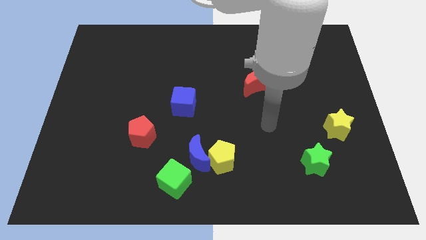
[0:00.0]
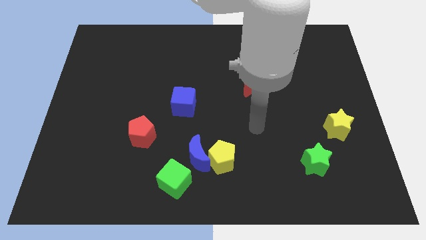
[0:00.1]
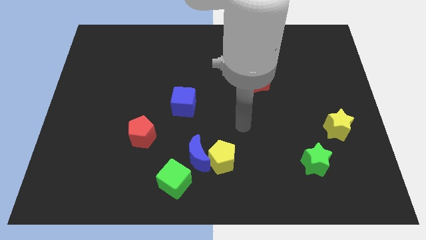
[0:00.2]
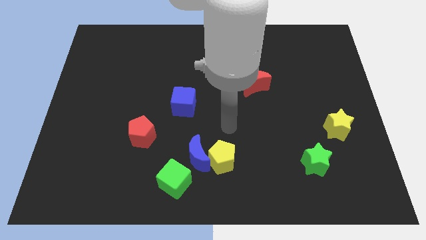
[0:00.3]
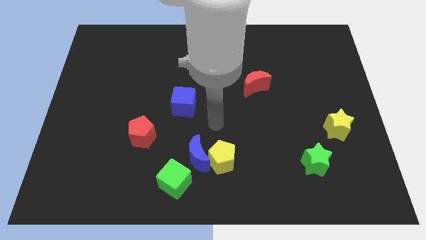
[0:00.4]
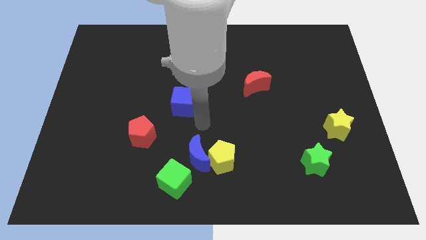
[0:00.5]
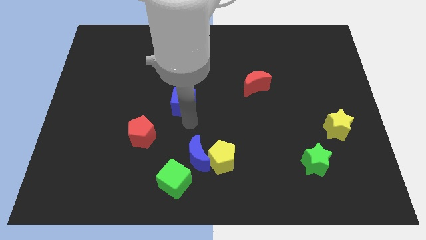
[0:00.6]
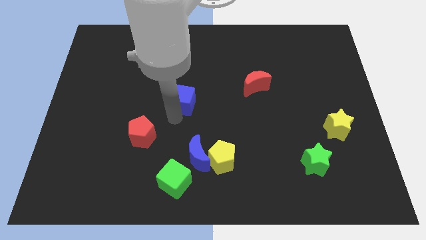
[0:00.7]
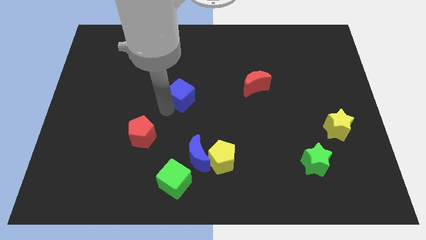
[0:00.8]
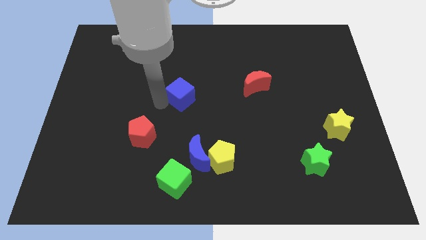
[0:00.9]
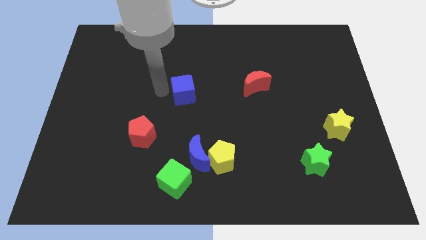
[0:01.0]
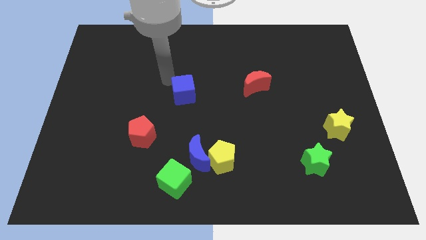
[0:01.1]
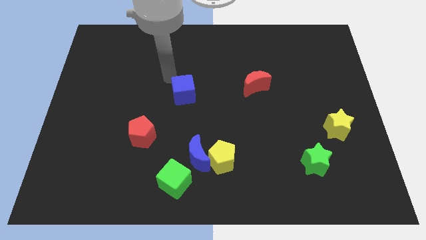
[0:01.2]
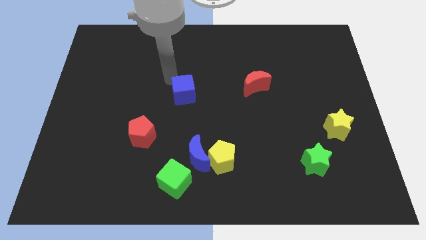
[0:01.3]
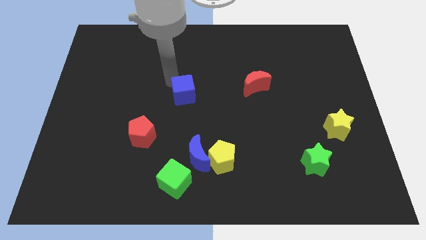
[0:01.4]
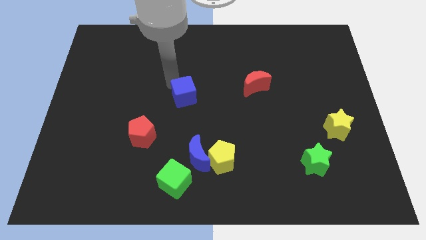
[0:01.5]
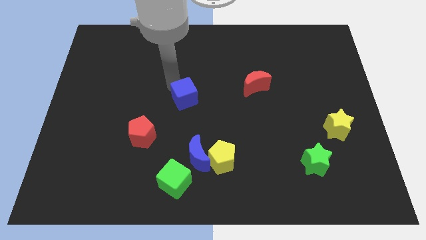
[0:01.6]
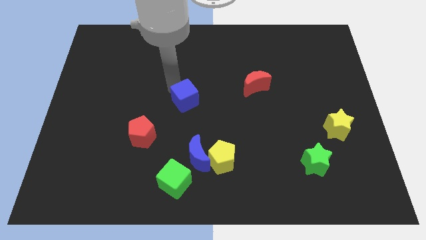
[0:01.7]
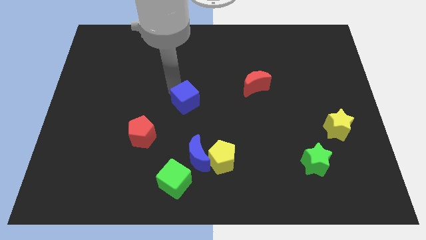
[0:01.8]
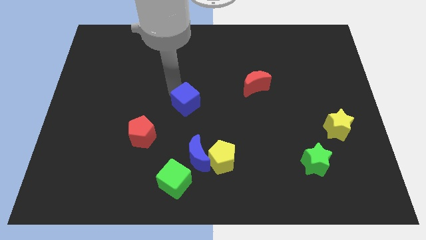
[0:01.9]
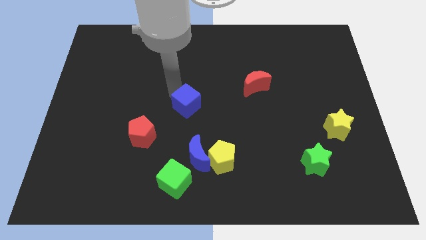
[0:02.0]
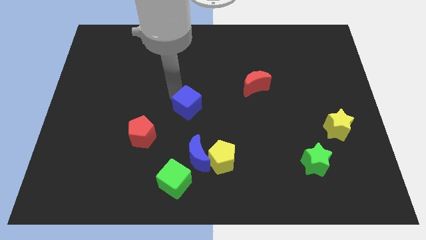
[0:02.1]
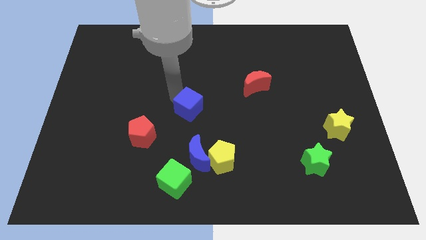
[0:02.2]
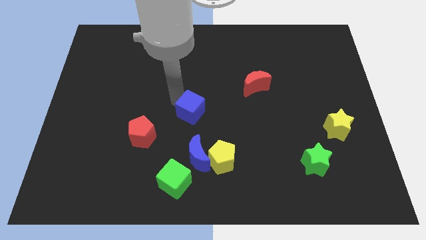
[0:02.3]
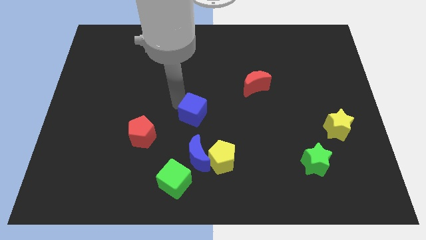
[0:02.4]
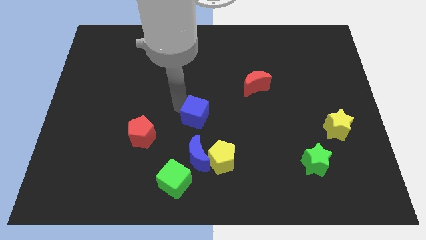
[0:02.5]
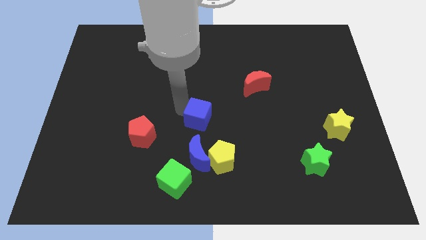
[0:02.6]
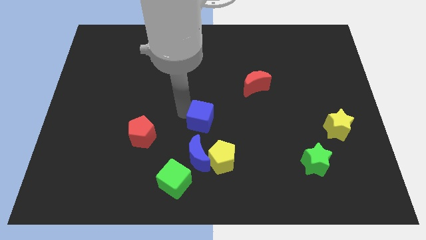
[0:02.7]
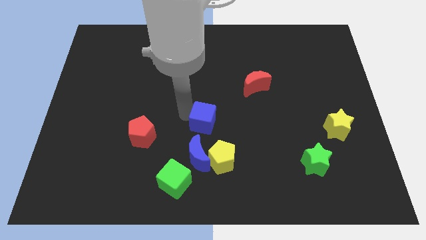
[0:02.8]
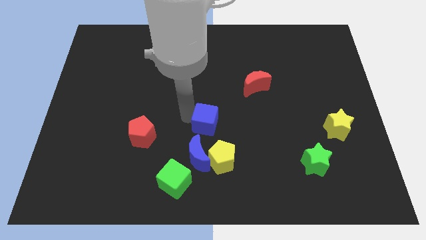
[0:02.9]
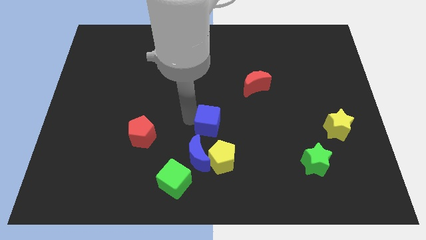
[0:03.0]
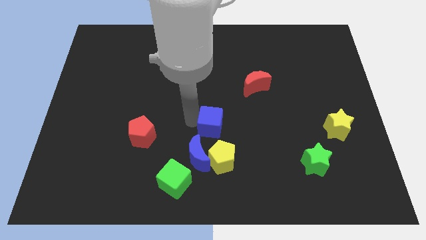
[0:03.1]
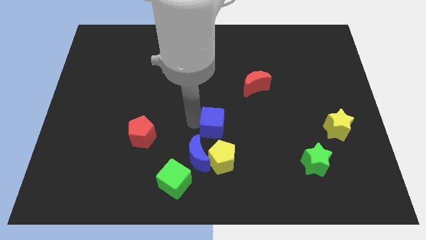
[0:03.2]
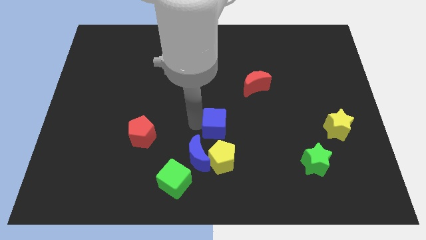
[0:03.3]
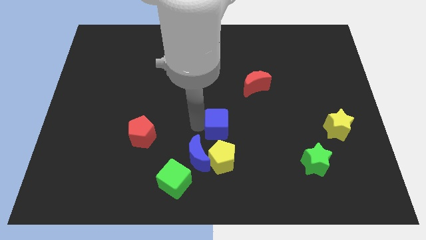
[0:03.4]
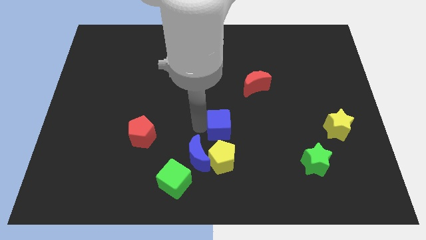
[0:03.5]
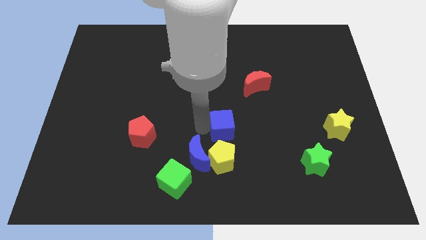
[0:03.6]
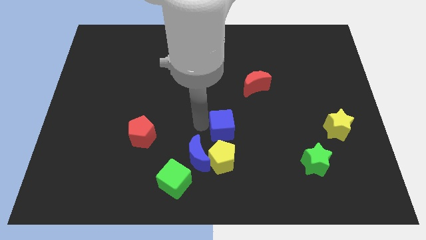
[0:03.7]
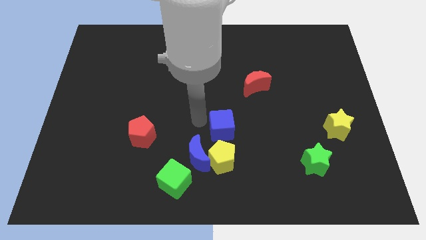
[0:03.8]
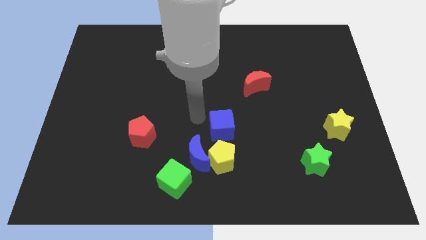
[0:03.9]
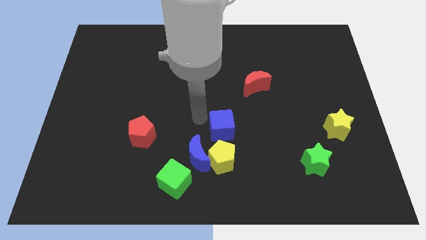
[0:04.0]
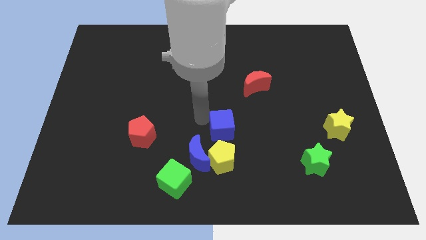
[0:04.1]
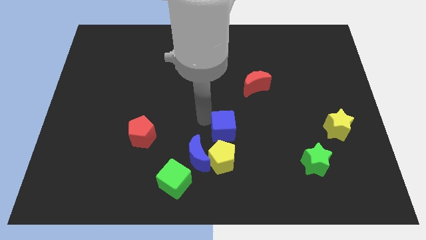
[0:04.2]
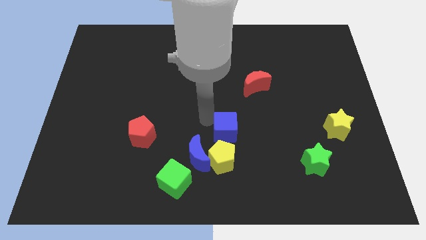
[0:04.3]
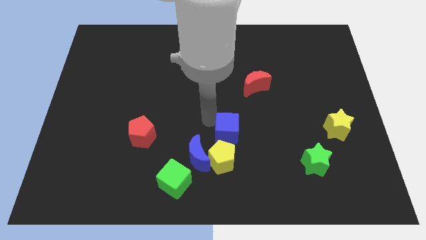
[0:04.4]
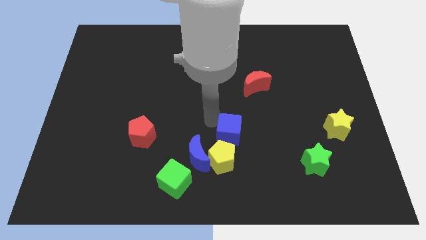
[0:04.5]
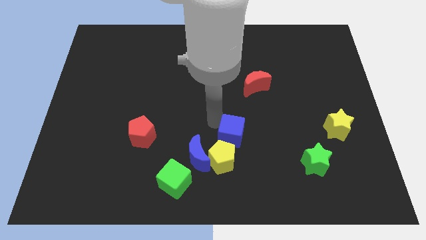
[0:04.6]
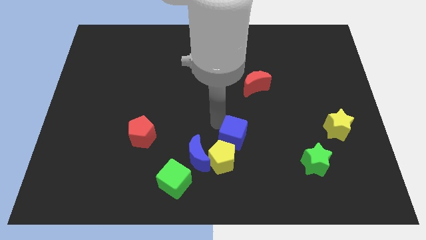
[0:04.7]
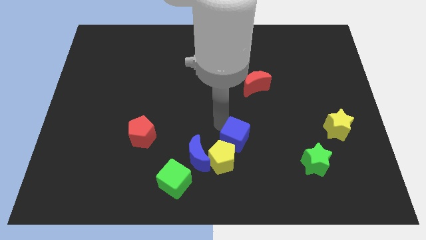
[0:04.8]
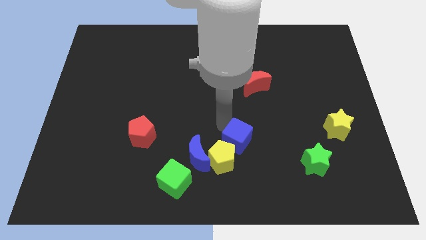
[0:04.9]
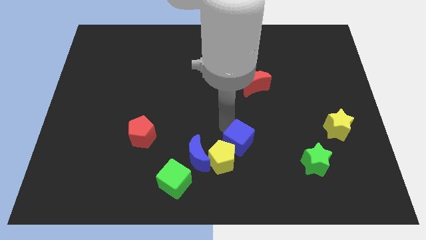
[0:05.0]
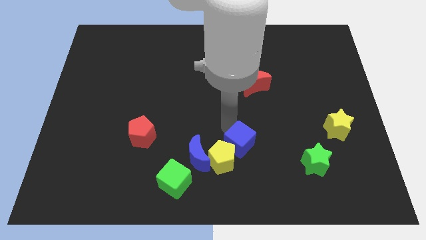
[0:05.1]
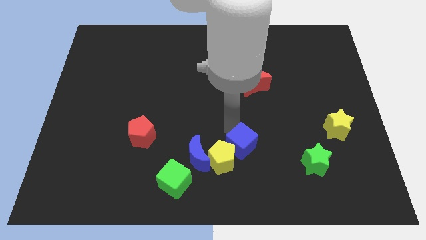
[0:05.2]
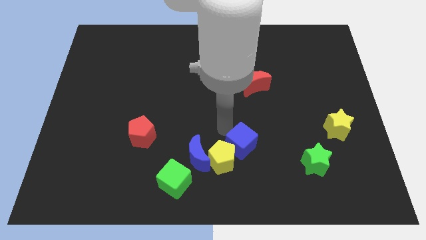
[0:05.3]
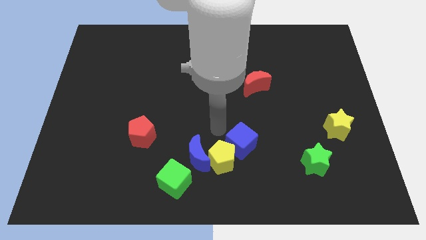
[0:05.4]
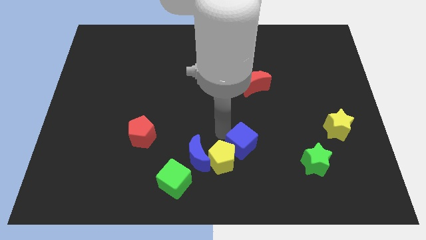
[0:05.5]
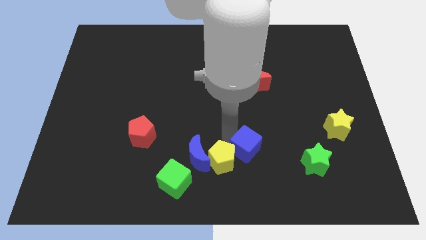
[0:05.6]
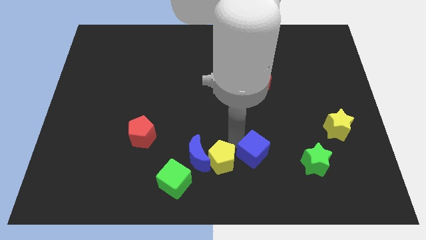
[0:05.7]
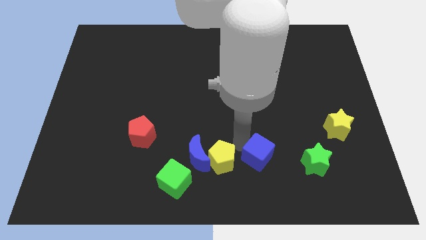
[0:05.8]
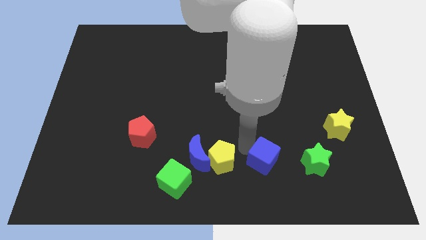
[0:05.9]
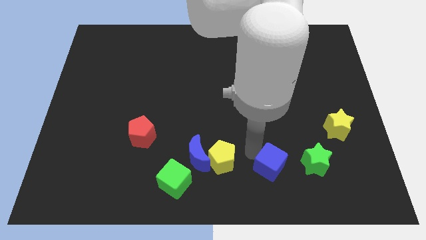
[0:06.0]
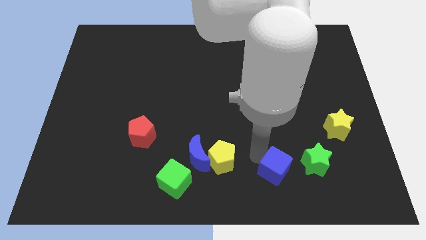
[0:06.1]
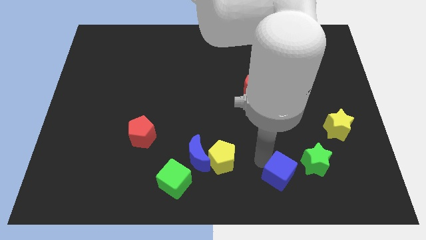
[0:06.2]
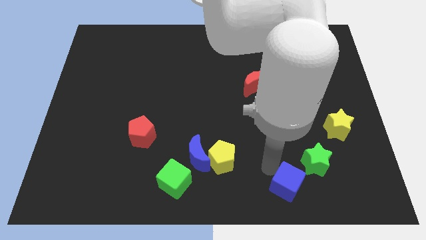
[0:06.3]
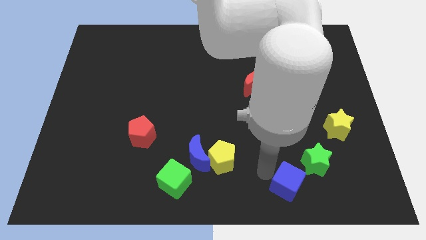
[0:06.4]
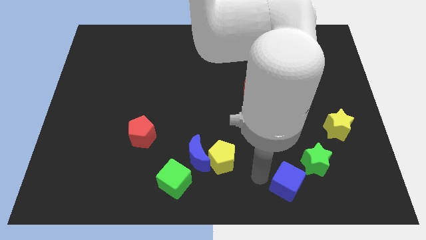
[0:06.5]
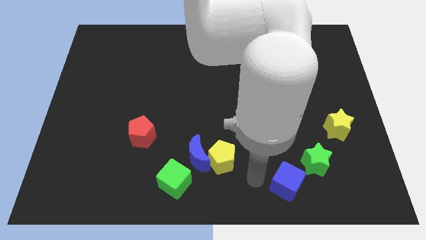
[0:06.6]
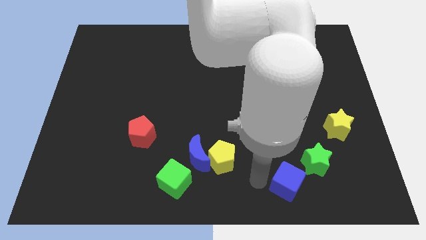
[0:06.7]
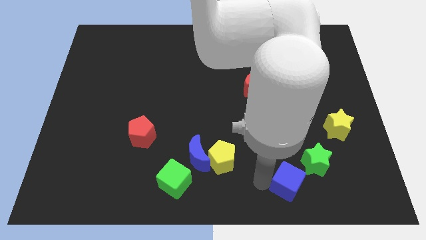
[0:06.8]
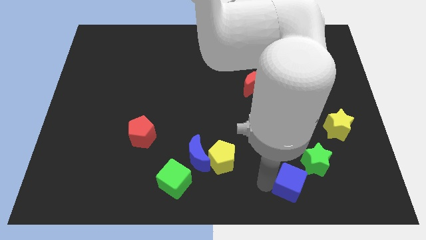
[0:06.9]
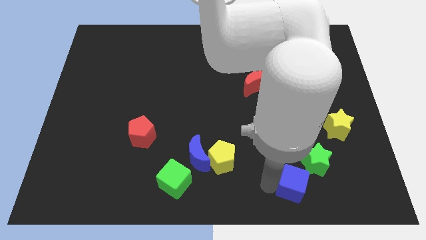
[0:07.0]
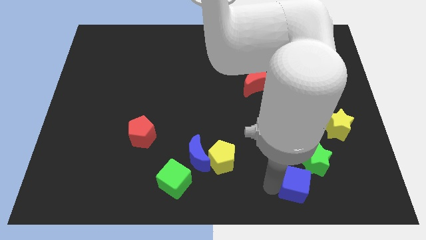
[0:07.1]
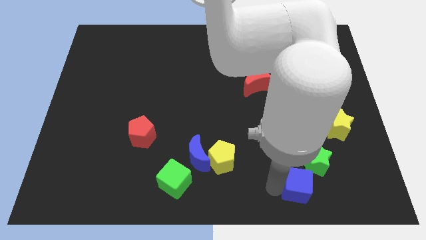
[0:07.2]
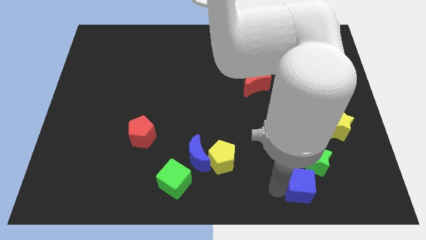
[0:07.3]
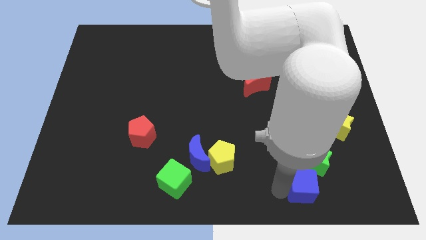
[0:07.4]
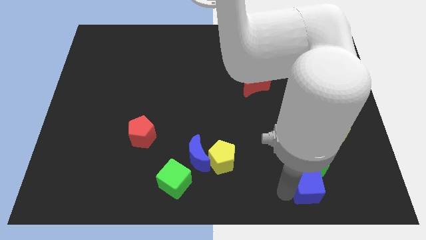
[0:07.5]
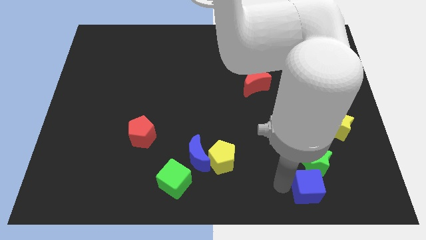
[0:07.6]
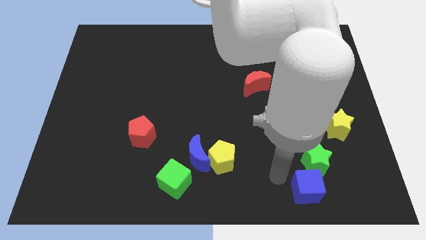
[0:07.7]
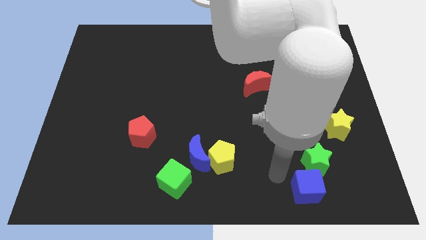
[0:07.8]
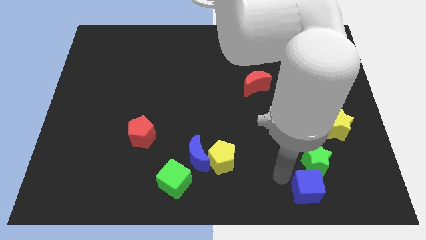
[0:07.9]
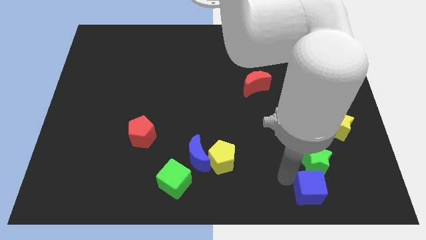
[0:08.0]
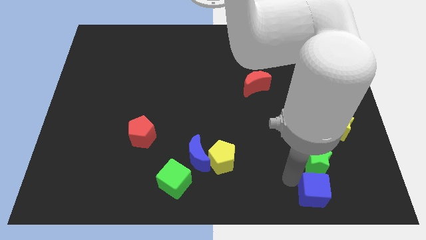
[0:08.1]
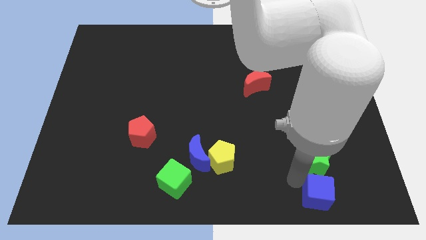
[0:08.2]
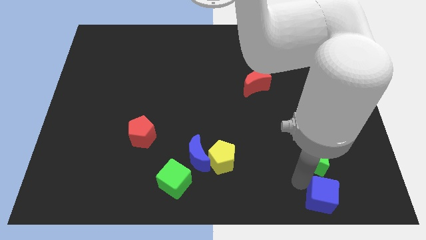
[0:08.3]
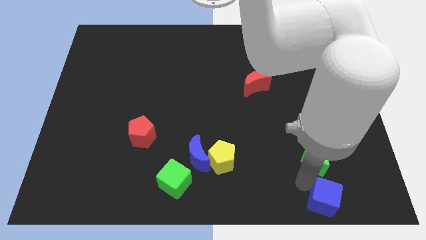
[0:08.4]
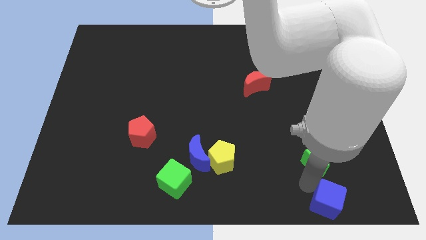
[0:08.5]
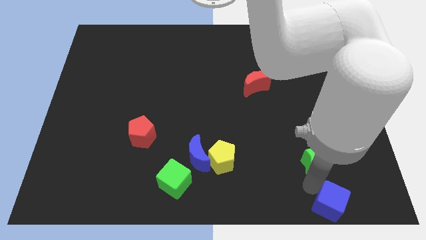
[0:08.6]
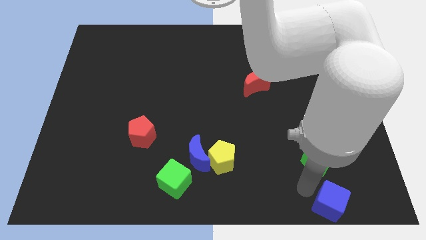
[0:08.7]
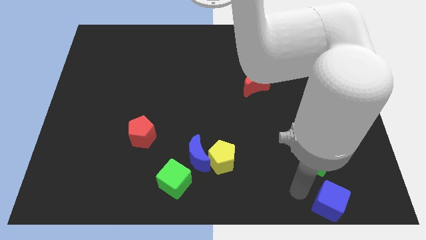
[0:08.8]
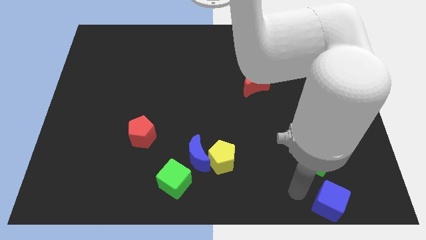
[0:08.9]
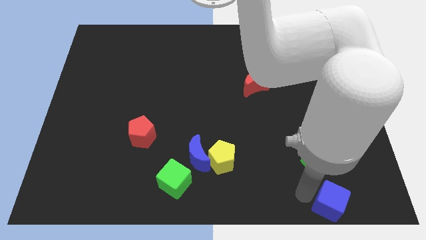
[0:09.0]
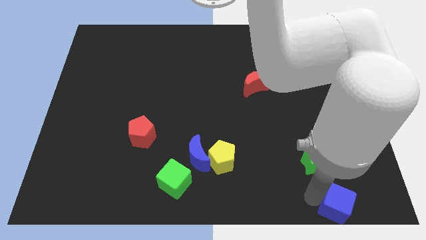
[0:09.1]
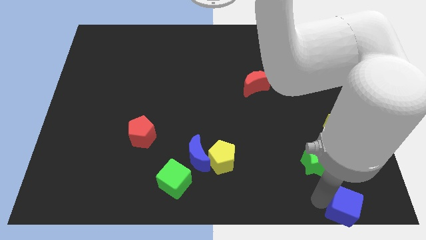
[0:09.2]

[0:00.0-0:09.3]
push the blue cube to the bottom right of the board
